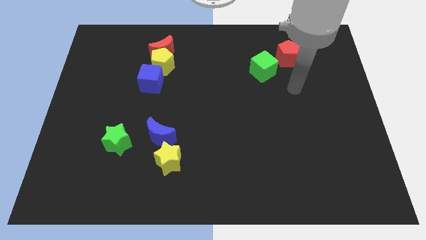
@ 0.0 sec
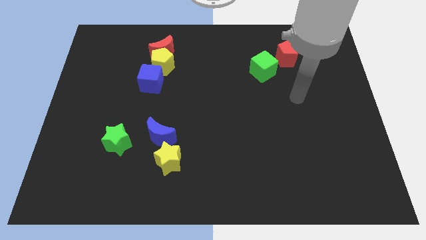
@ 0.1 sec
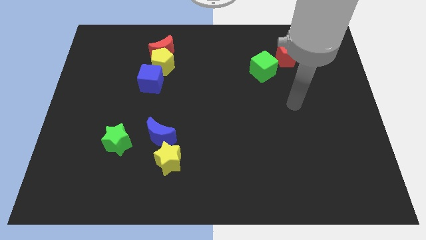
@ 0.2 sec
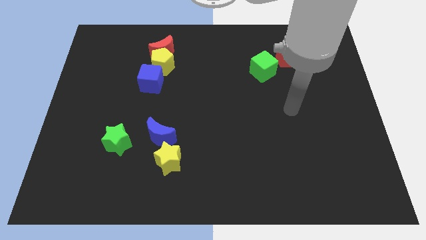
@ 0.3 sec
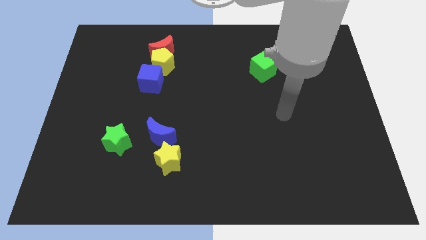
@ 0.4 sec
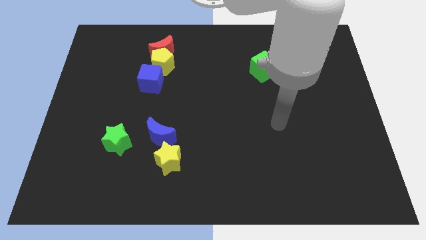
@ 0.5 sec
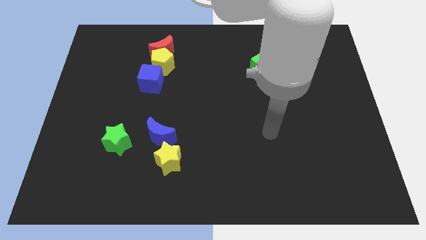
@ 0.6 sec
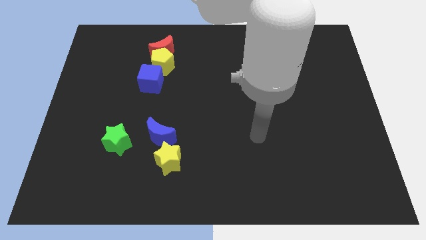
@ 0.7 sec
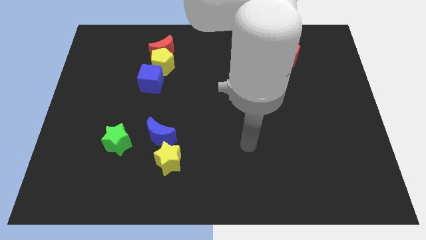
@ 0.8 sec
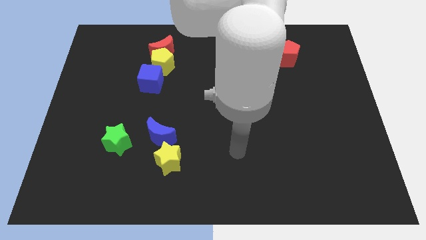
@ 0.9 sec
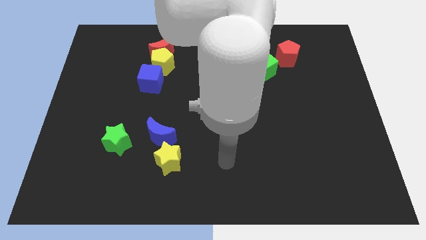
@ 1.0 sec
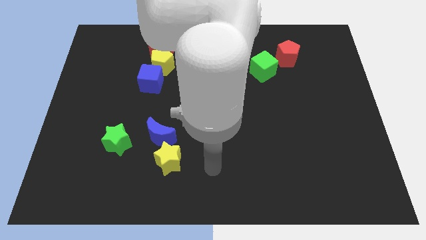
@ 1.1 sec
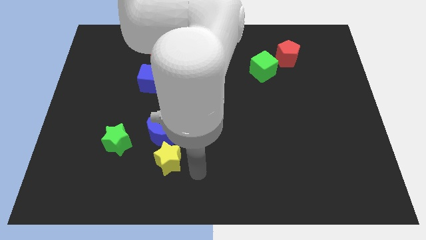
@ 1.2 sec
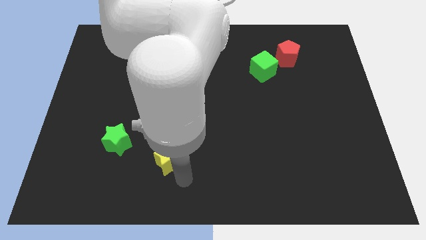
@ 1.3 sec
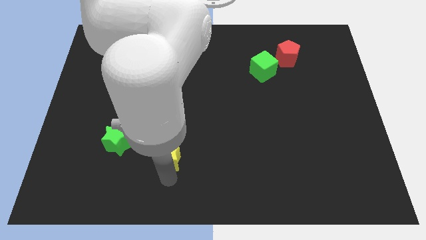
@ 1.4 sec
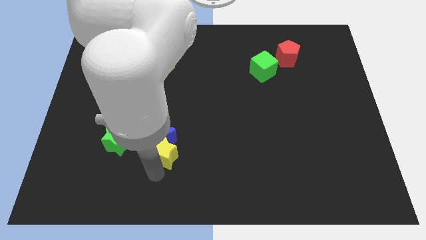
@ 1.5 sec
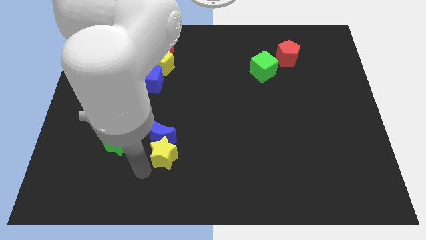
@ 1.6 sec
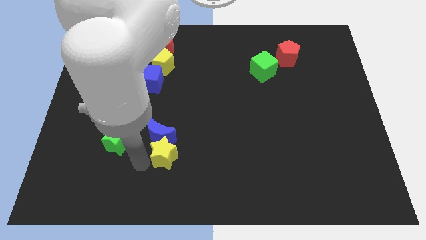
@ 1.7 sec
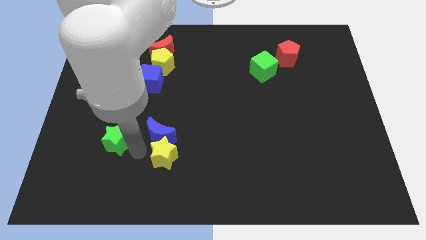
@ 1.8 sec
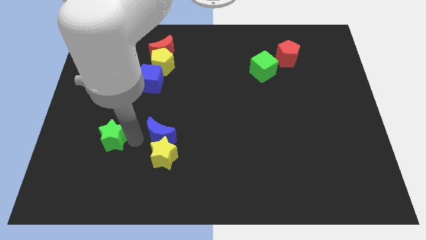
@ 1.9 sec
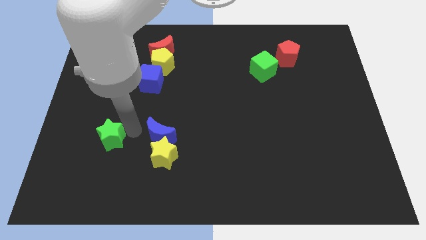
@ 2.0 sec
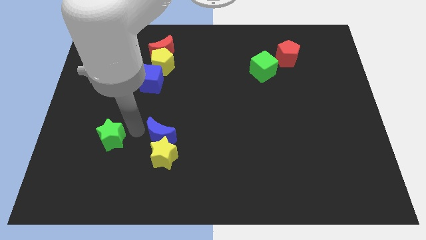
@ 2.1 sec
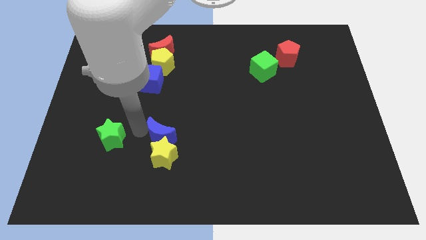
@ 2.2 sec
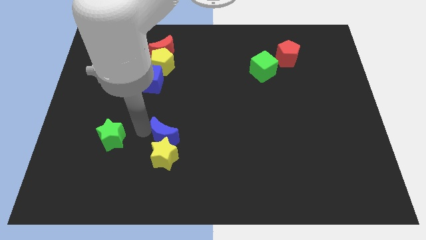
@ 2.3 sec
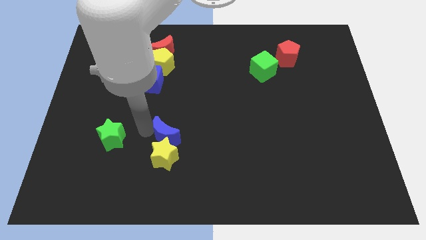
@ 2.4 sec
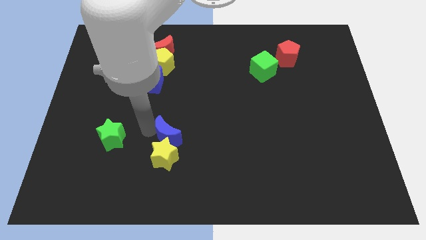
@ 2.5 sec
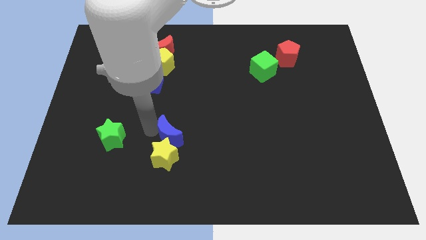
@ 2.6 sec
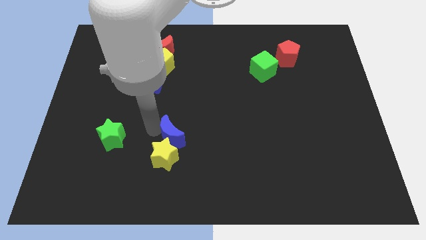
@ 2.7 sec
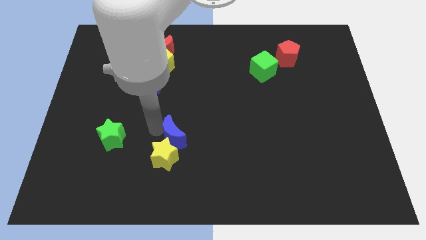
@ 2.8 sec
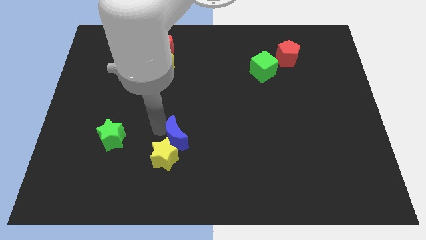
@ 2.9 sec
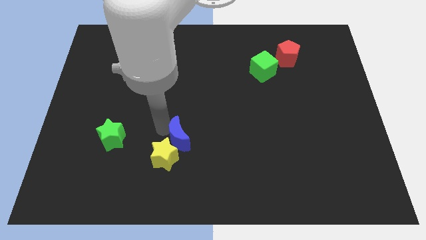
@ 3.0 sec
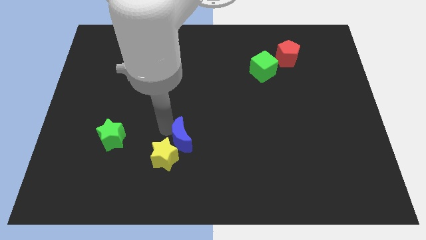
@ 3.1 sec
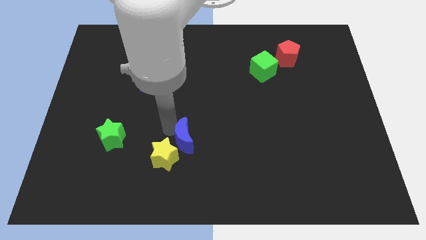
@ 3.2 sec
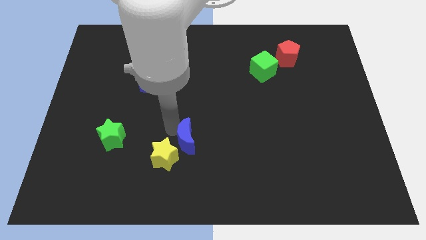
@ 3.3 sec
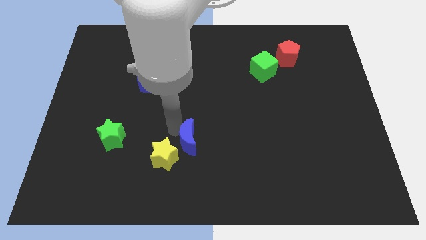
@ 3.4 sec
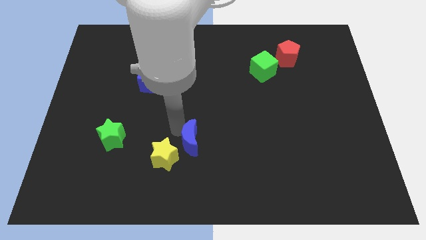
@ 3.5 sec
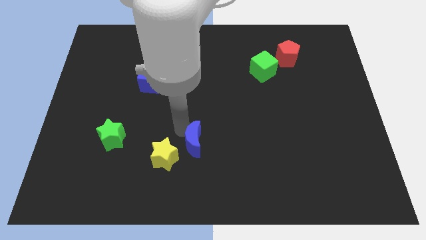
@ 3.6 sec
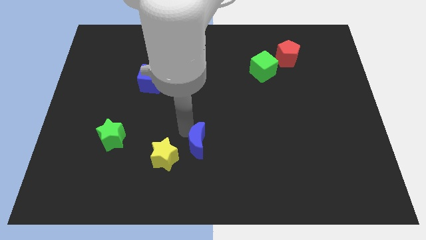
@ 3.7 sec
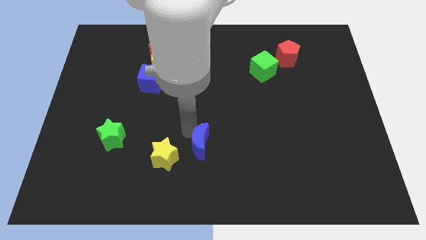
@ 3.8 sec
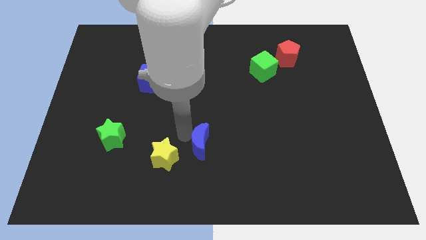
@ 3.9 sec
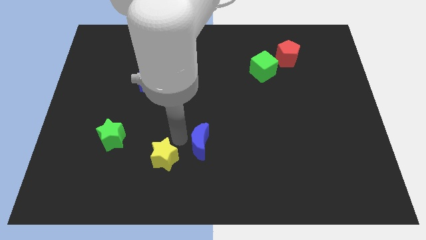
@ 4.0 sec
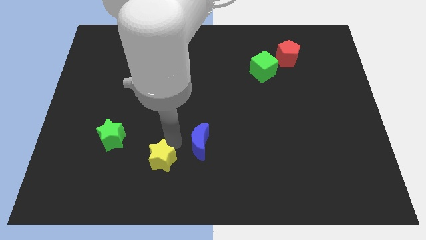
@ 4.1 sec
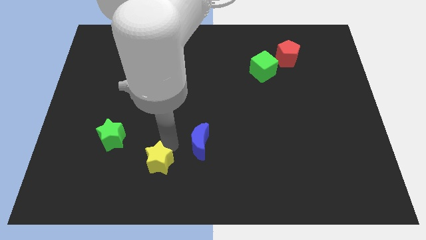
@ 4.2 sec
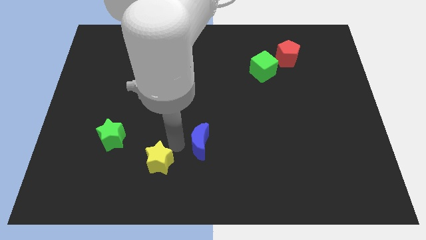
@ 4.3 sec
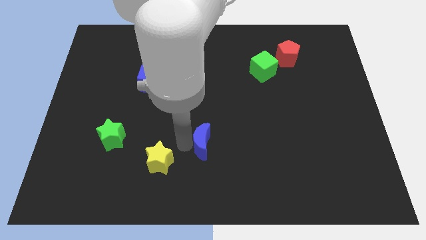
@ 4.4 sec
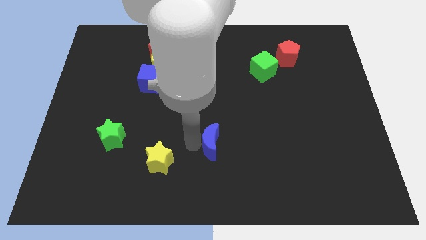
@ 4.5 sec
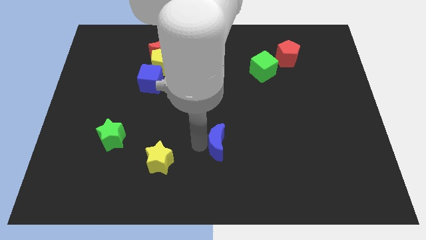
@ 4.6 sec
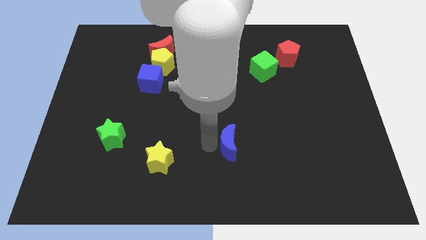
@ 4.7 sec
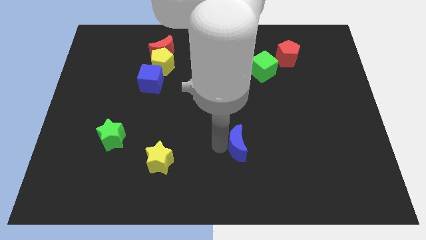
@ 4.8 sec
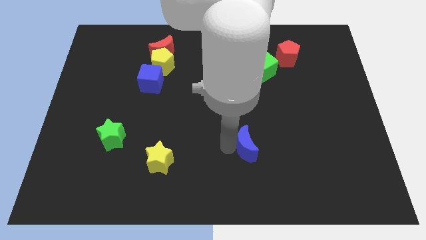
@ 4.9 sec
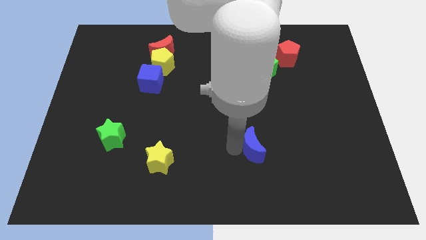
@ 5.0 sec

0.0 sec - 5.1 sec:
move the blue moon right

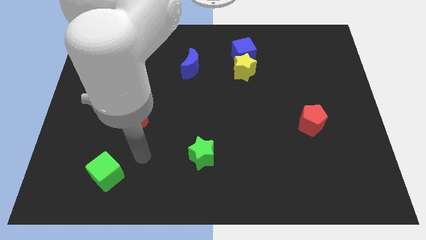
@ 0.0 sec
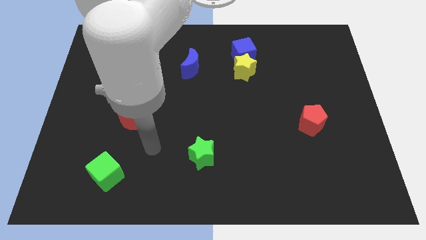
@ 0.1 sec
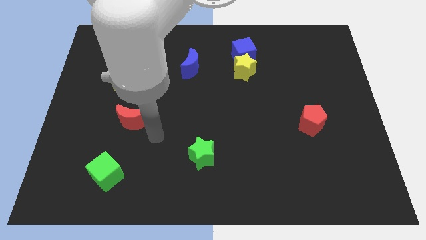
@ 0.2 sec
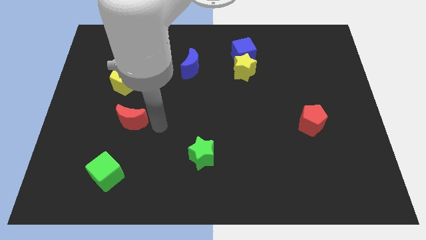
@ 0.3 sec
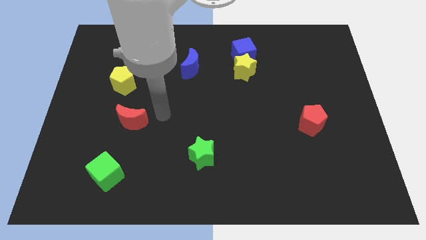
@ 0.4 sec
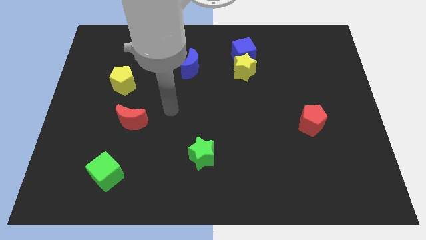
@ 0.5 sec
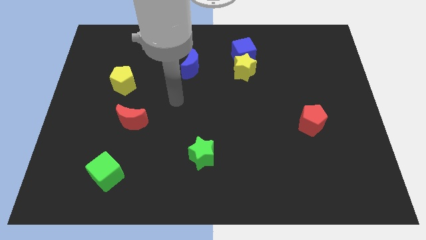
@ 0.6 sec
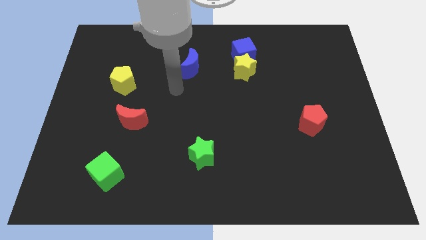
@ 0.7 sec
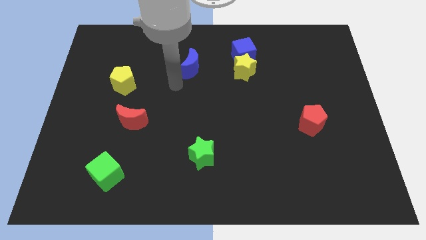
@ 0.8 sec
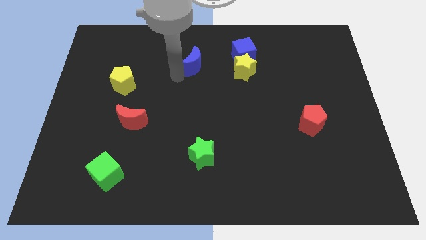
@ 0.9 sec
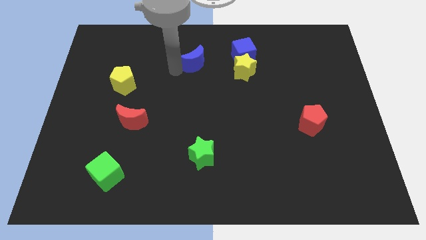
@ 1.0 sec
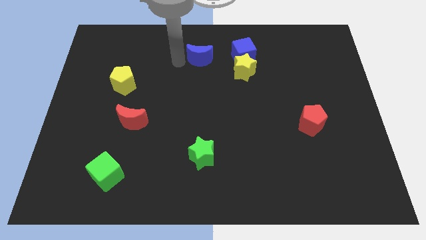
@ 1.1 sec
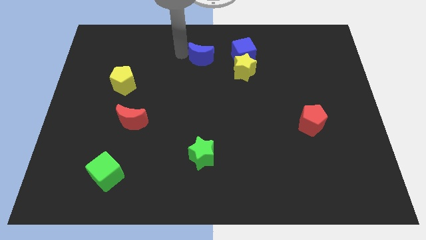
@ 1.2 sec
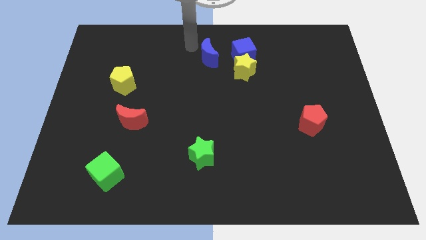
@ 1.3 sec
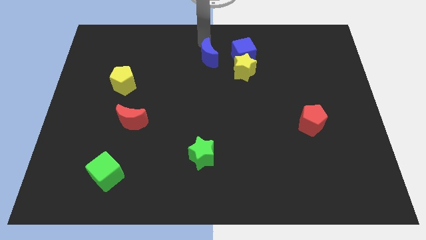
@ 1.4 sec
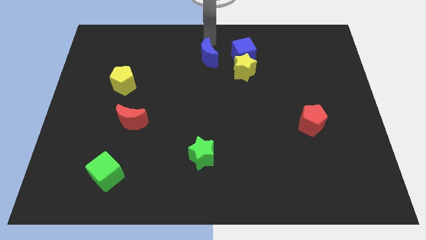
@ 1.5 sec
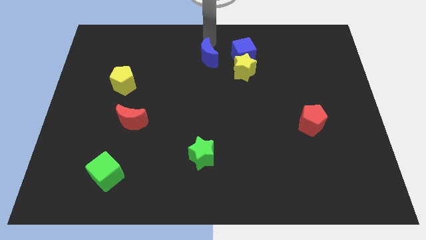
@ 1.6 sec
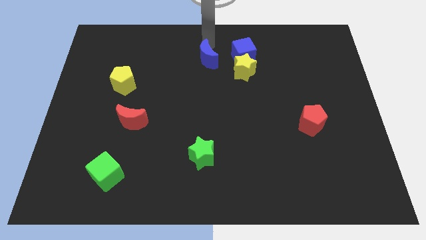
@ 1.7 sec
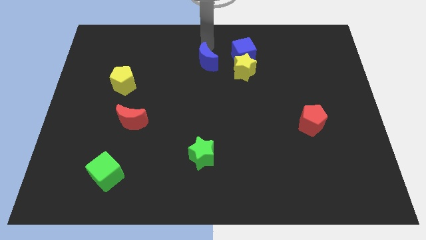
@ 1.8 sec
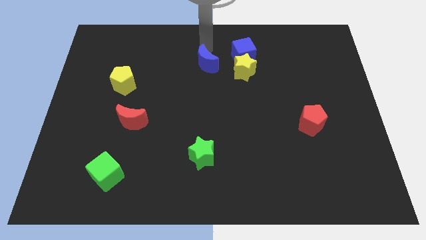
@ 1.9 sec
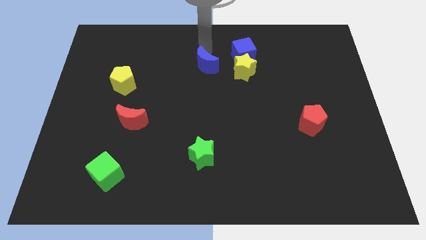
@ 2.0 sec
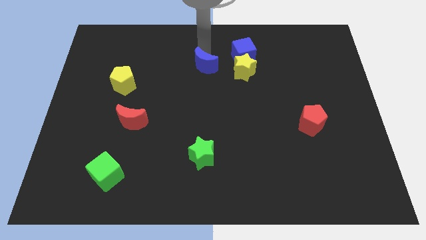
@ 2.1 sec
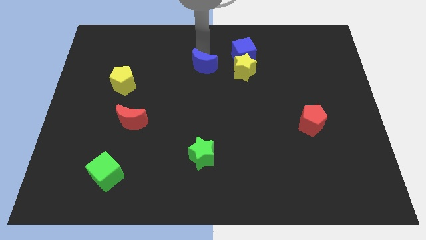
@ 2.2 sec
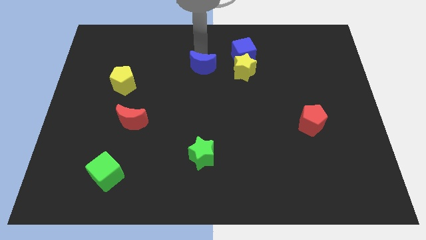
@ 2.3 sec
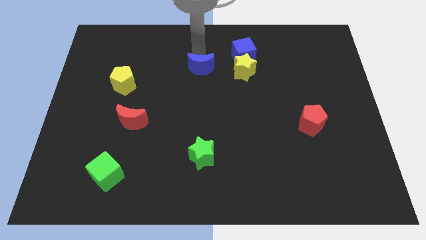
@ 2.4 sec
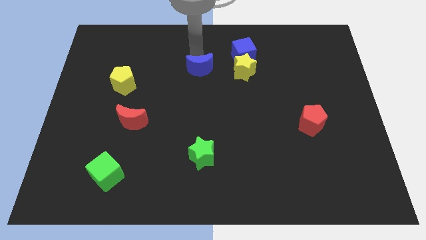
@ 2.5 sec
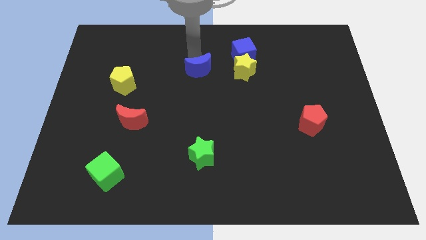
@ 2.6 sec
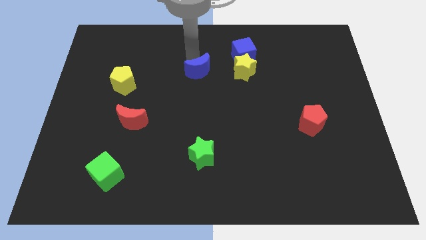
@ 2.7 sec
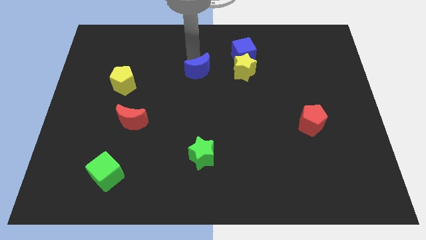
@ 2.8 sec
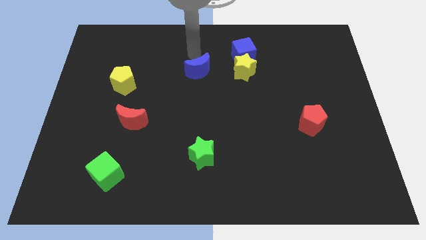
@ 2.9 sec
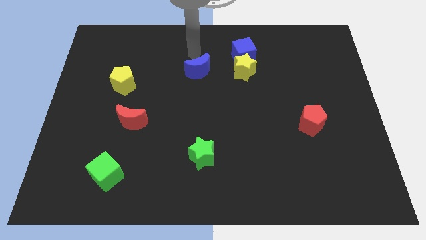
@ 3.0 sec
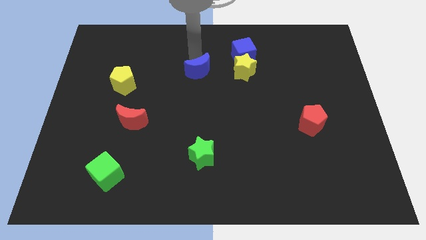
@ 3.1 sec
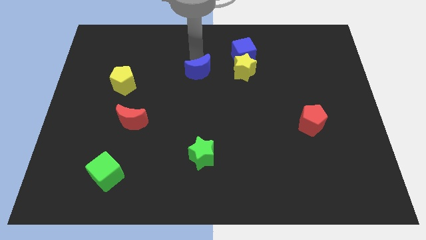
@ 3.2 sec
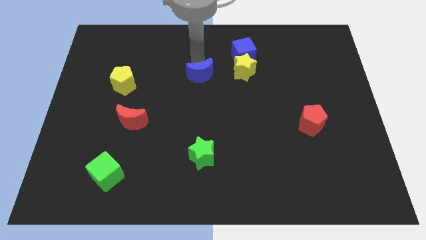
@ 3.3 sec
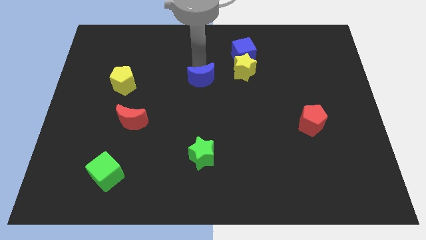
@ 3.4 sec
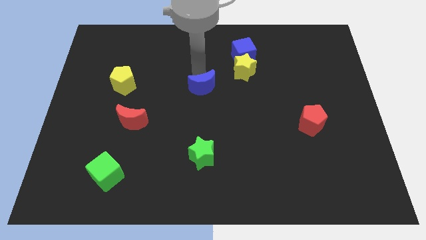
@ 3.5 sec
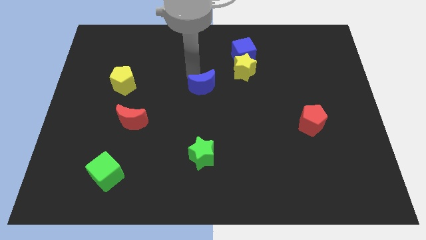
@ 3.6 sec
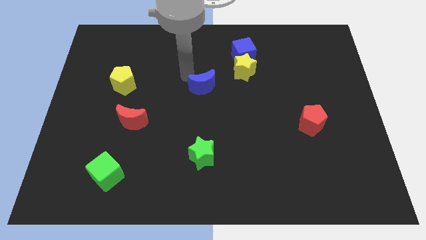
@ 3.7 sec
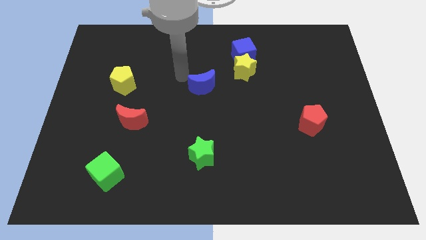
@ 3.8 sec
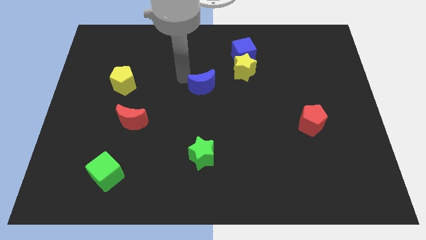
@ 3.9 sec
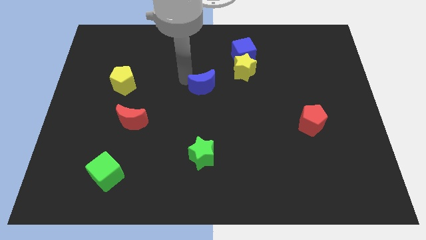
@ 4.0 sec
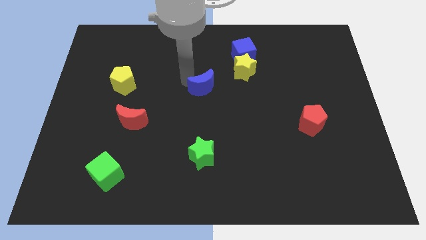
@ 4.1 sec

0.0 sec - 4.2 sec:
slightly slide the blue moon down and right
